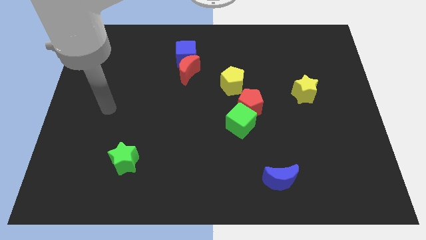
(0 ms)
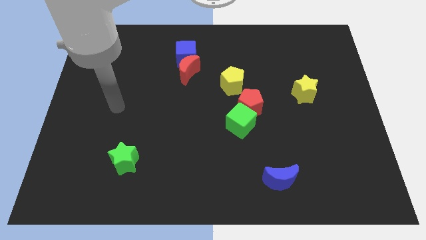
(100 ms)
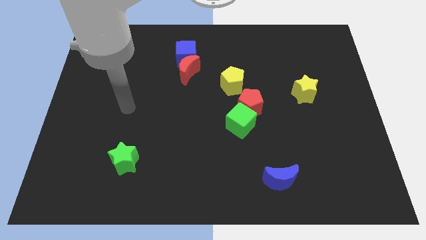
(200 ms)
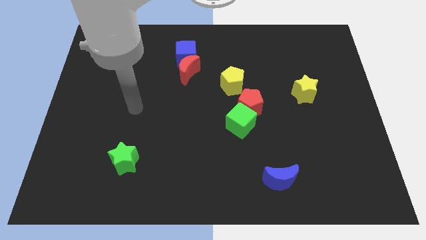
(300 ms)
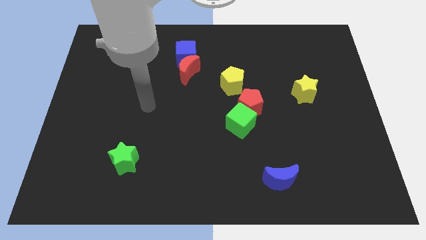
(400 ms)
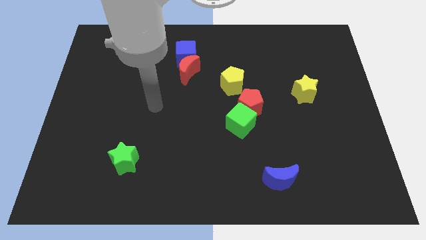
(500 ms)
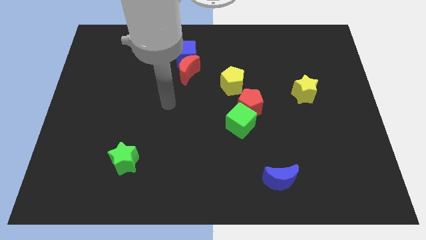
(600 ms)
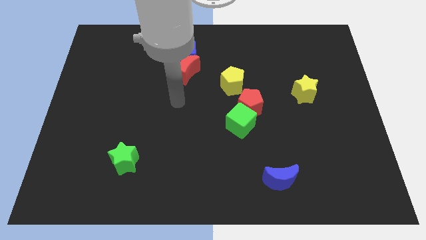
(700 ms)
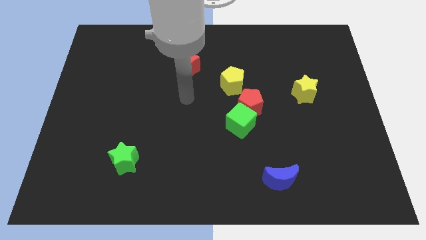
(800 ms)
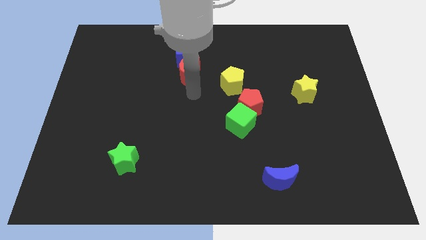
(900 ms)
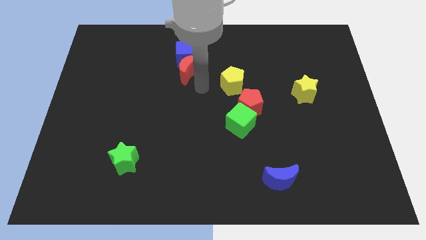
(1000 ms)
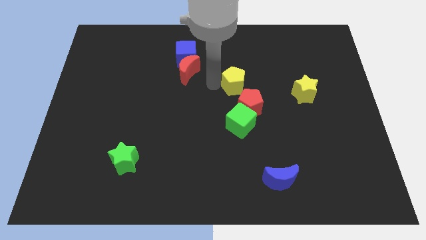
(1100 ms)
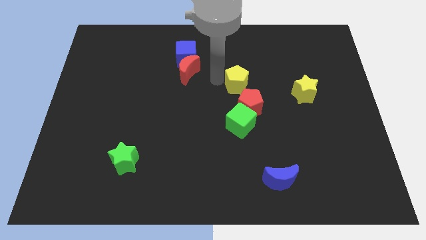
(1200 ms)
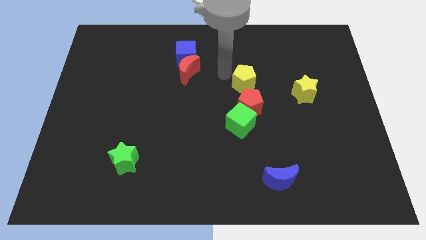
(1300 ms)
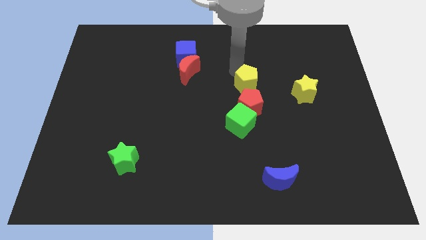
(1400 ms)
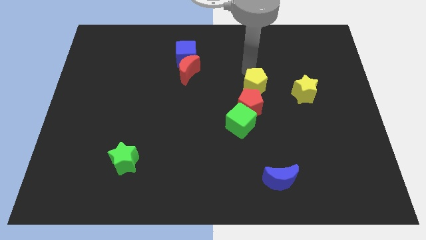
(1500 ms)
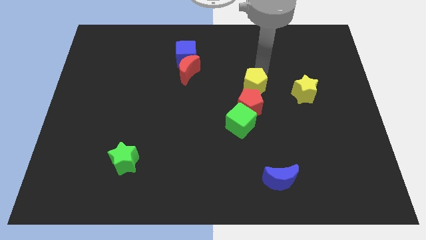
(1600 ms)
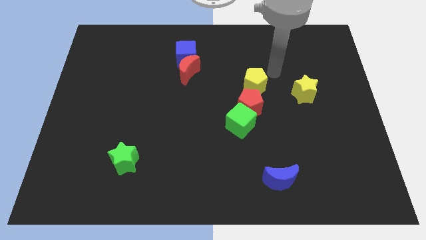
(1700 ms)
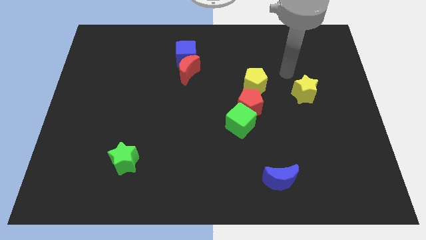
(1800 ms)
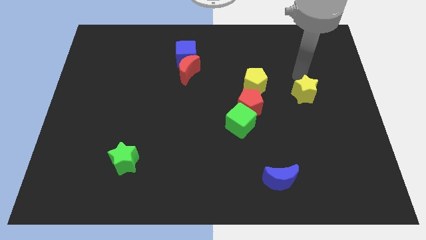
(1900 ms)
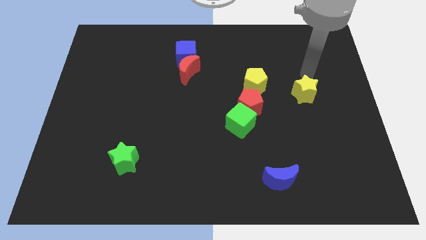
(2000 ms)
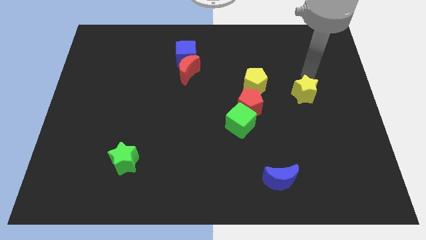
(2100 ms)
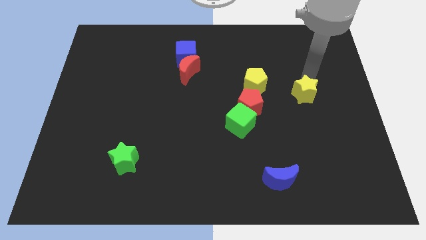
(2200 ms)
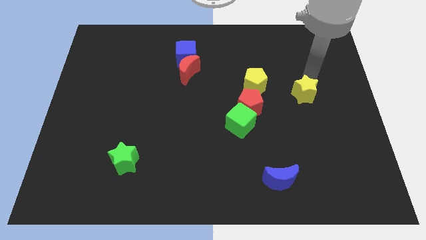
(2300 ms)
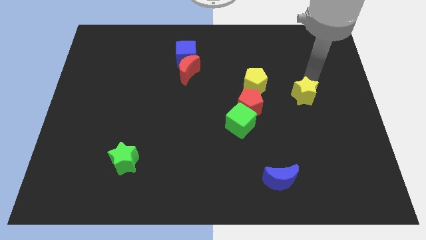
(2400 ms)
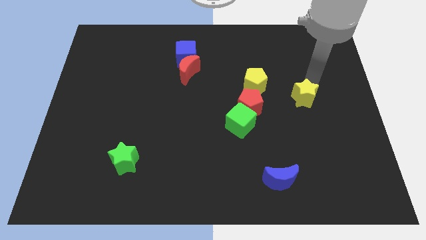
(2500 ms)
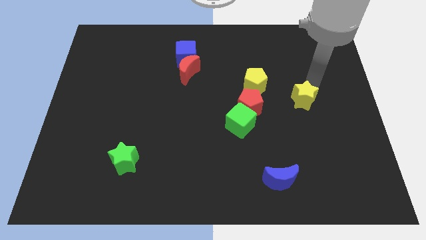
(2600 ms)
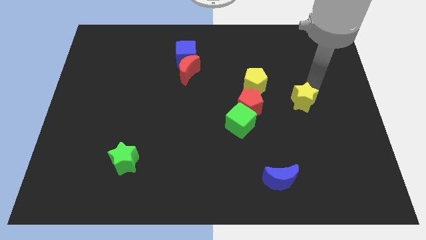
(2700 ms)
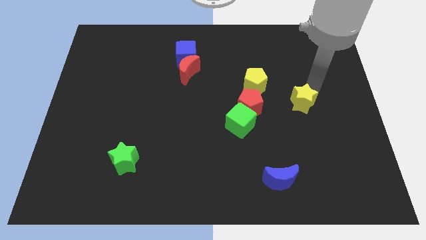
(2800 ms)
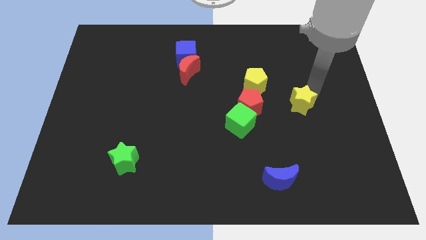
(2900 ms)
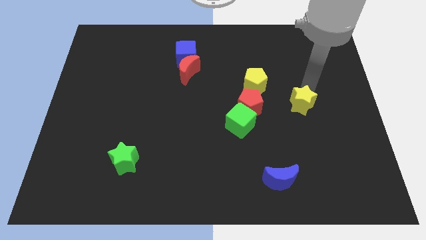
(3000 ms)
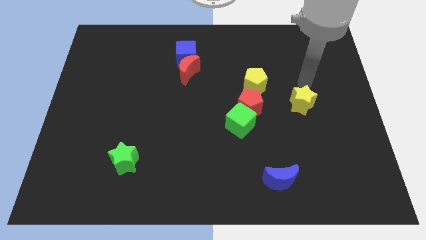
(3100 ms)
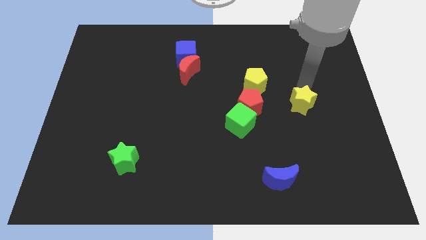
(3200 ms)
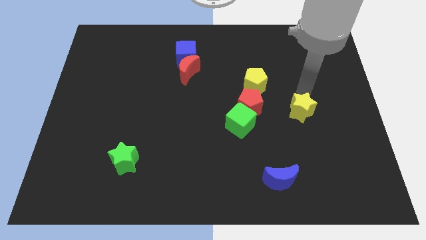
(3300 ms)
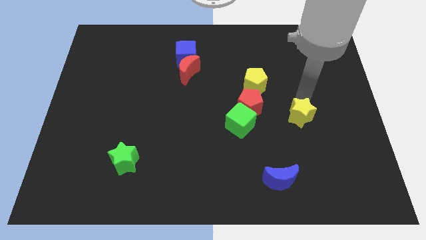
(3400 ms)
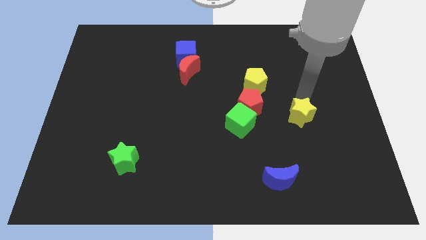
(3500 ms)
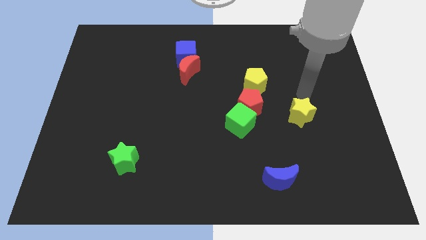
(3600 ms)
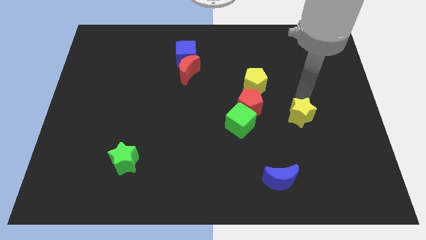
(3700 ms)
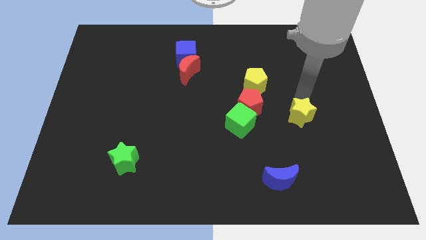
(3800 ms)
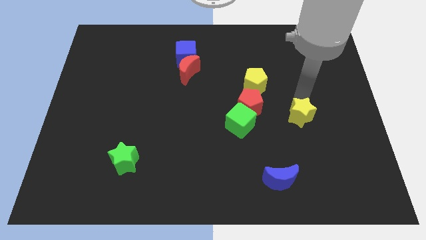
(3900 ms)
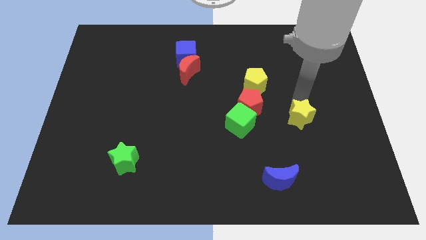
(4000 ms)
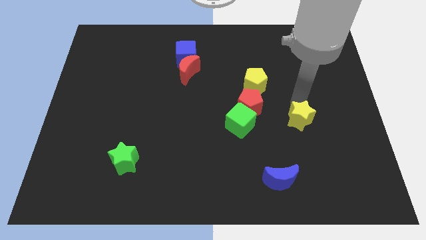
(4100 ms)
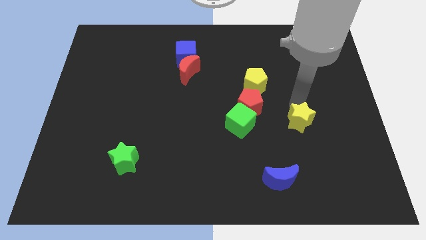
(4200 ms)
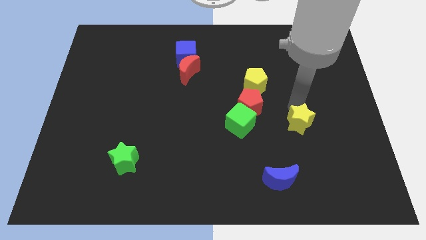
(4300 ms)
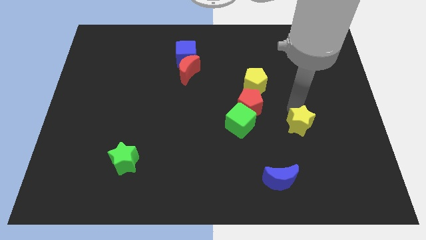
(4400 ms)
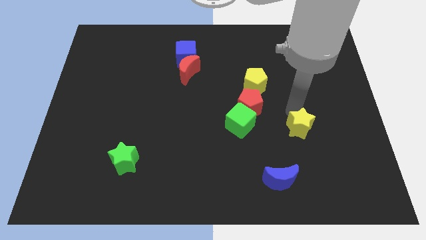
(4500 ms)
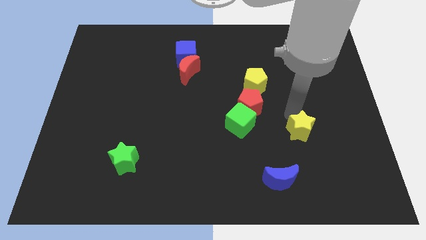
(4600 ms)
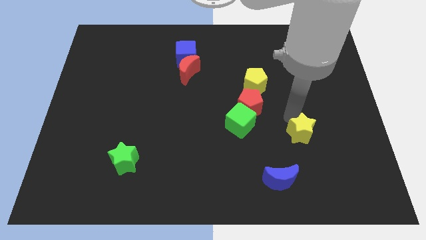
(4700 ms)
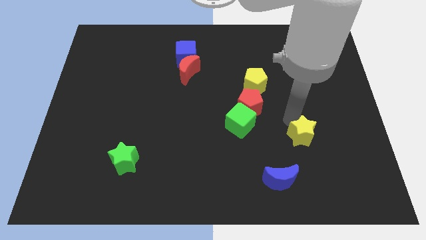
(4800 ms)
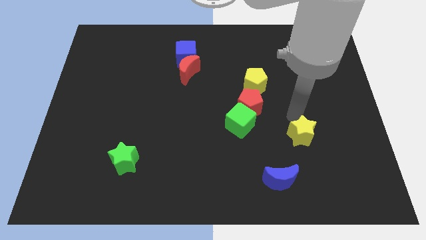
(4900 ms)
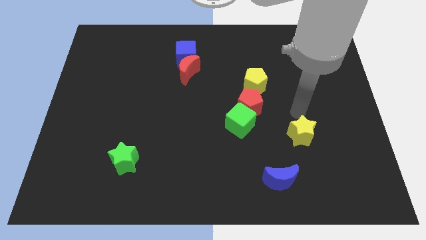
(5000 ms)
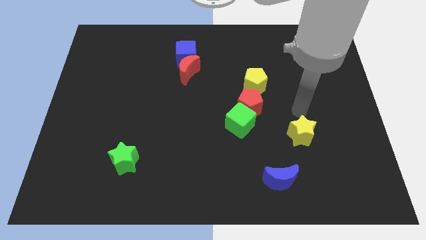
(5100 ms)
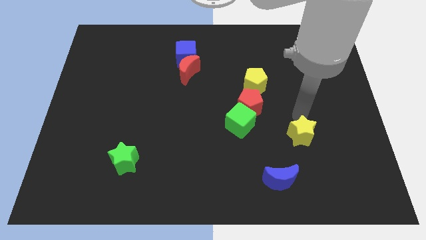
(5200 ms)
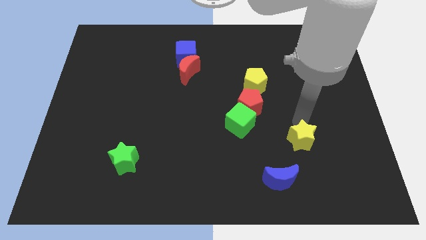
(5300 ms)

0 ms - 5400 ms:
put the yellow star diagonally up and to the right of the blue moon

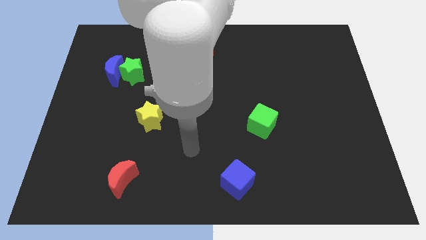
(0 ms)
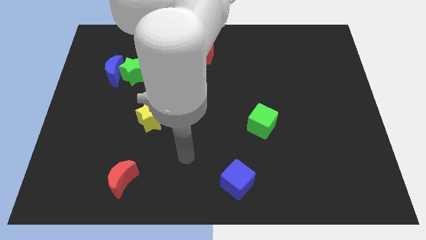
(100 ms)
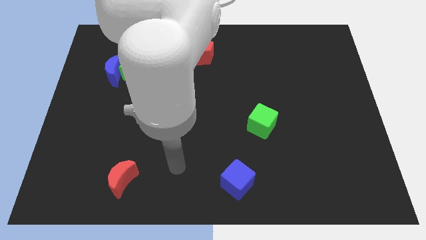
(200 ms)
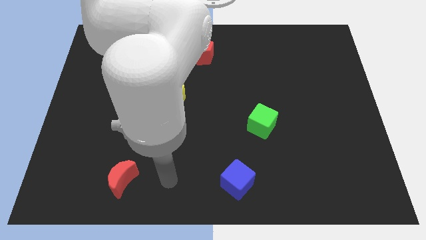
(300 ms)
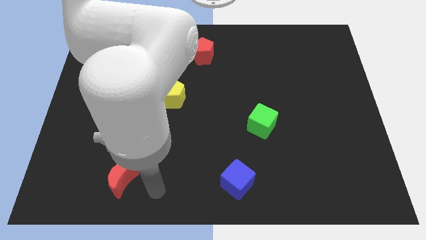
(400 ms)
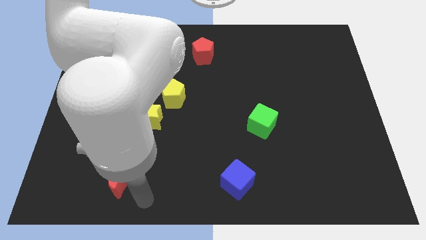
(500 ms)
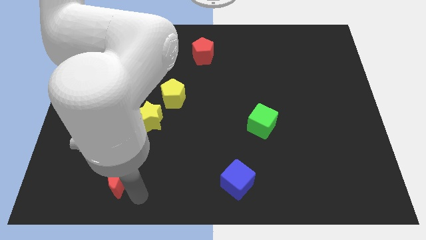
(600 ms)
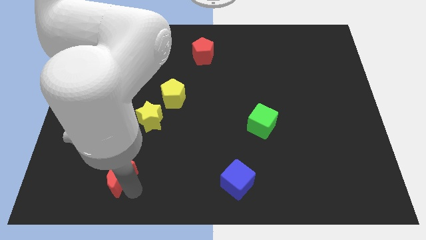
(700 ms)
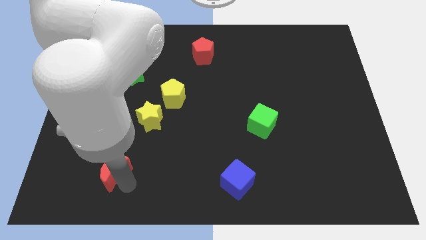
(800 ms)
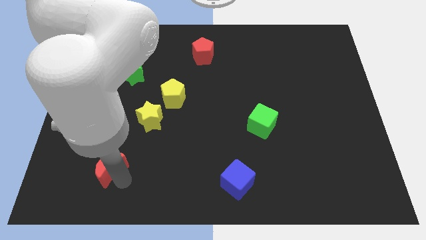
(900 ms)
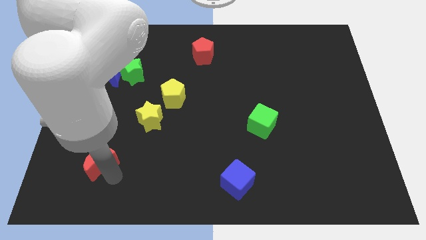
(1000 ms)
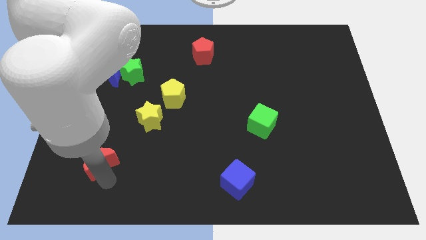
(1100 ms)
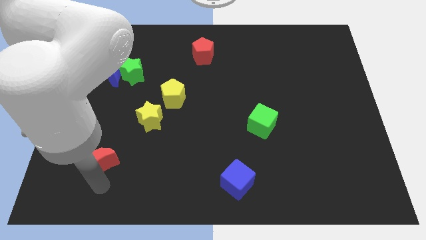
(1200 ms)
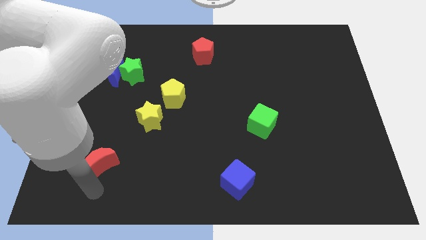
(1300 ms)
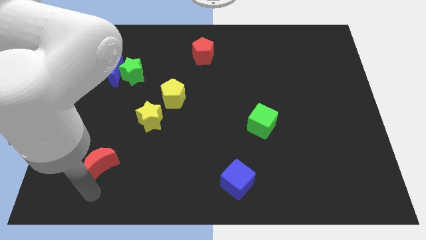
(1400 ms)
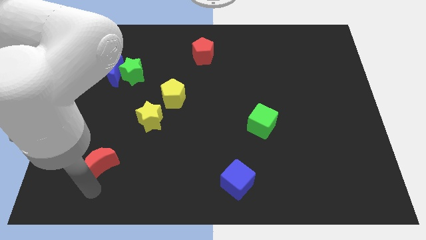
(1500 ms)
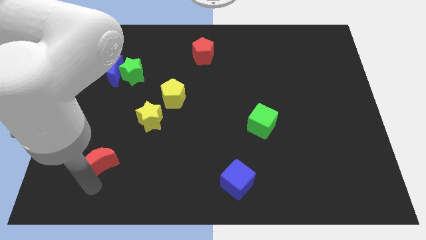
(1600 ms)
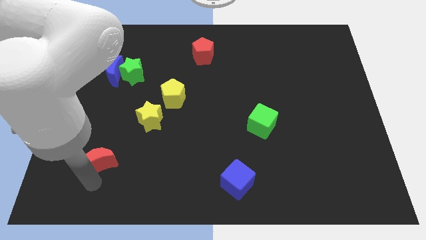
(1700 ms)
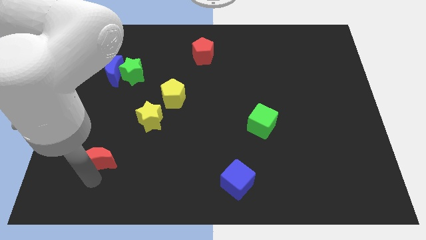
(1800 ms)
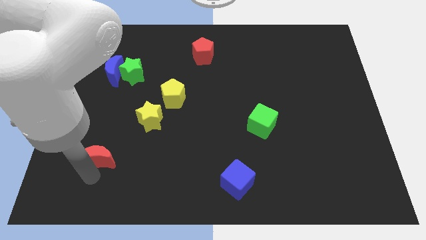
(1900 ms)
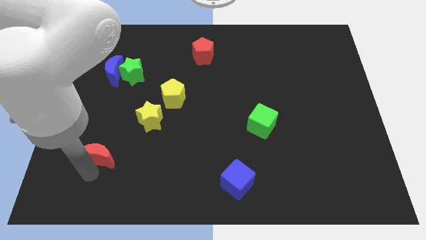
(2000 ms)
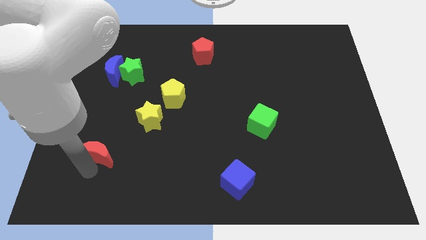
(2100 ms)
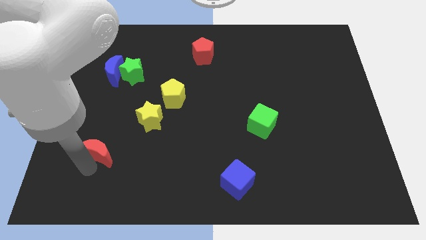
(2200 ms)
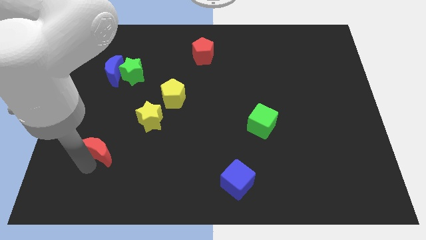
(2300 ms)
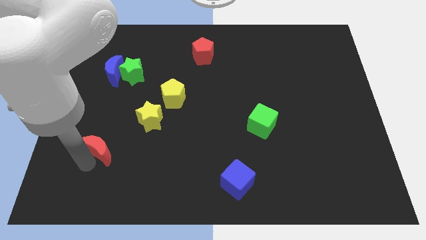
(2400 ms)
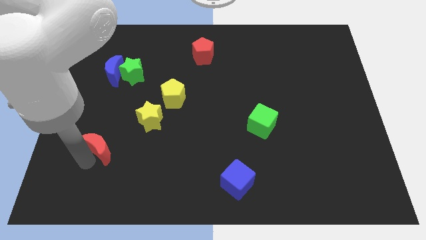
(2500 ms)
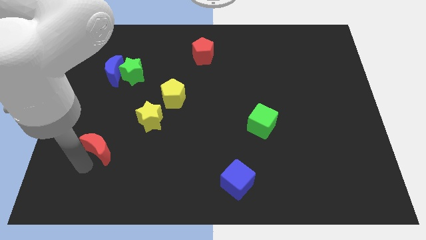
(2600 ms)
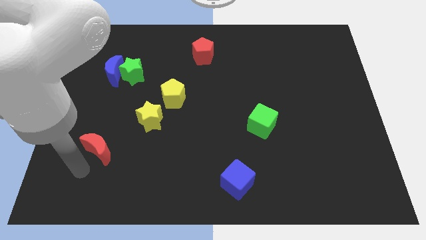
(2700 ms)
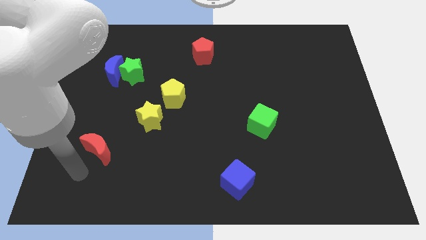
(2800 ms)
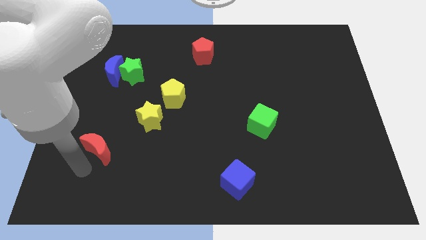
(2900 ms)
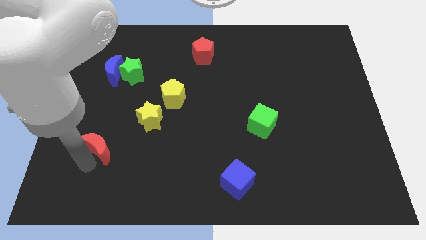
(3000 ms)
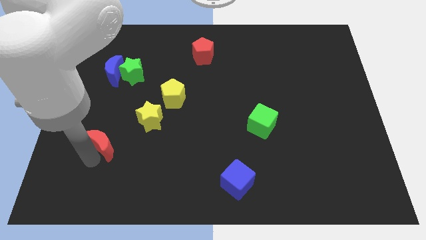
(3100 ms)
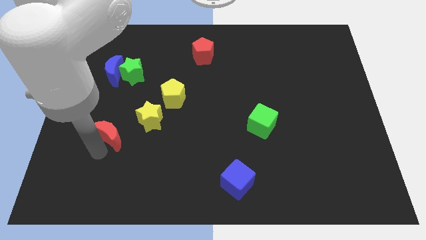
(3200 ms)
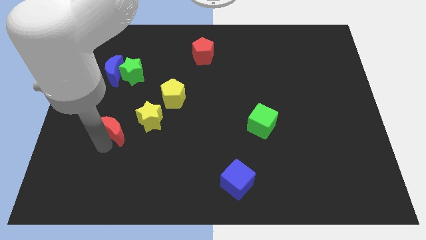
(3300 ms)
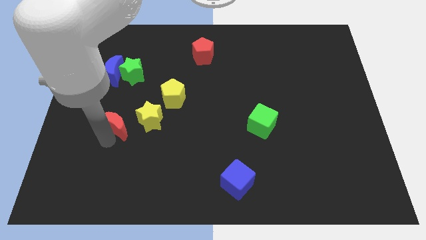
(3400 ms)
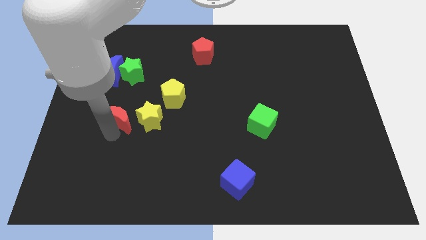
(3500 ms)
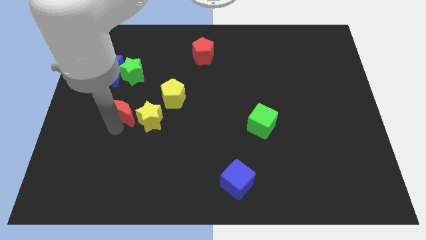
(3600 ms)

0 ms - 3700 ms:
push the red moon diagonally up and to the left of the yellow star
